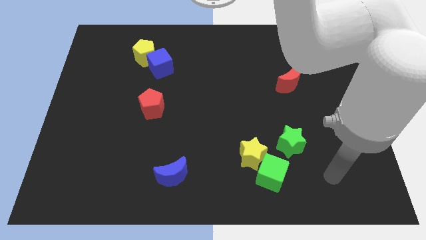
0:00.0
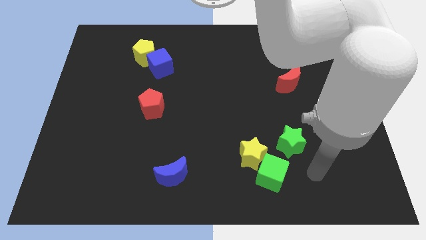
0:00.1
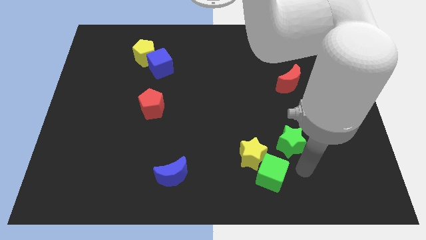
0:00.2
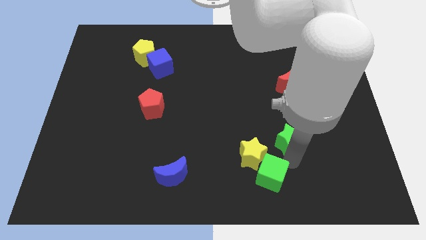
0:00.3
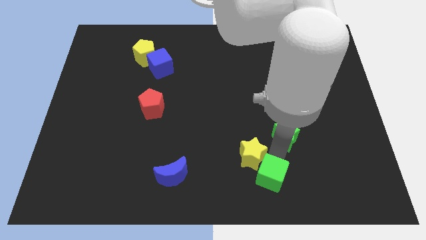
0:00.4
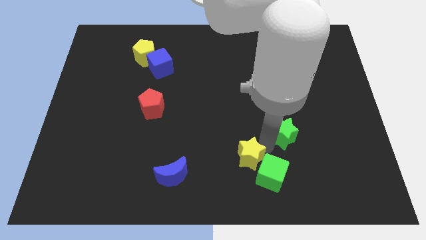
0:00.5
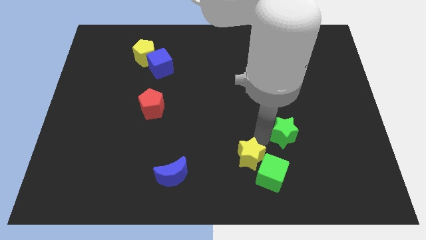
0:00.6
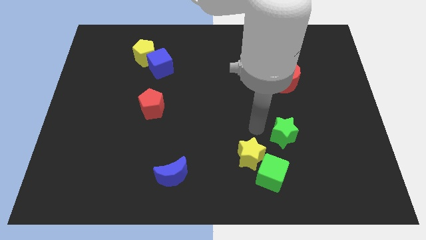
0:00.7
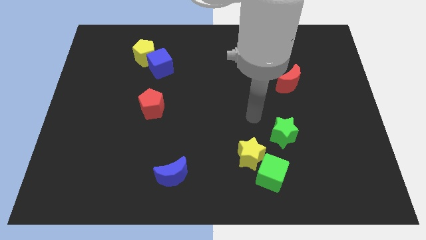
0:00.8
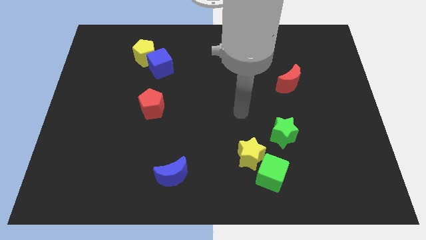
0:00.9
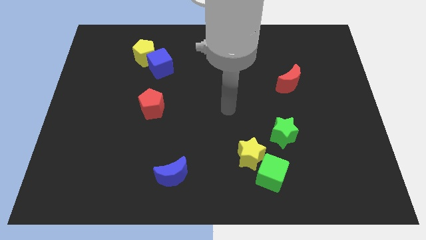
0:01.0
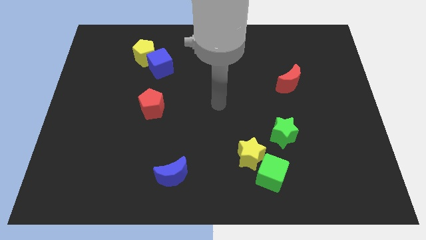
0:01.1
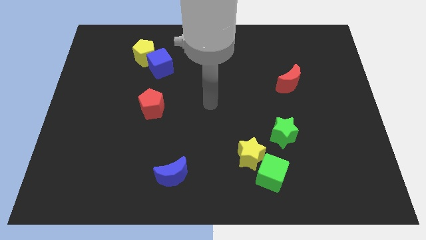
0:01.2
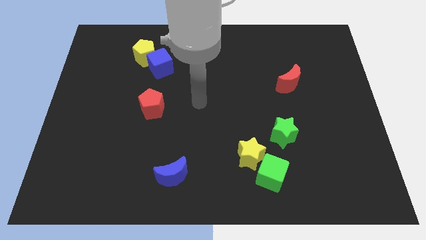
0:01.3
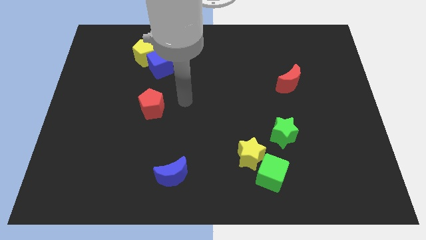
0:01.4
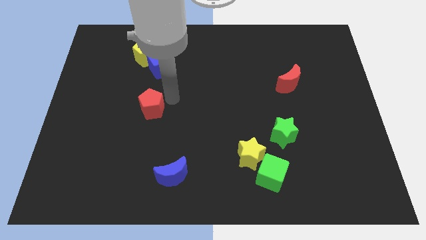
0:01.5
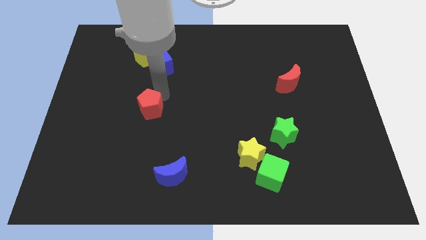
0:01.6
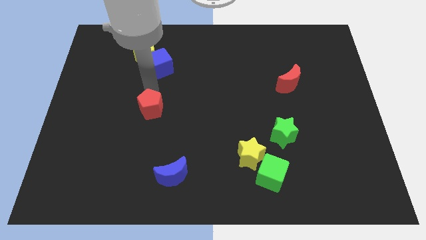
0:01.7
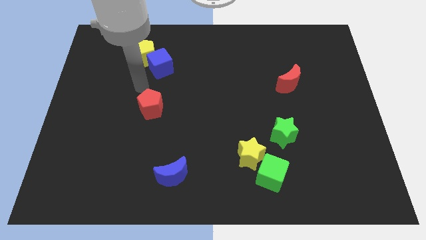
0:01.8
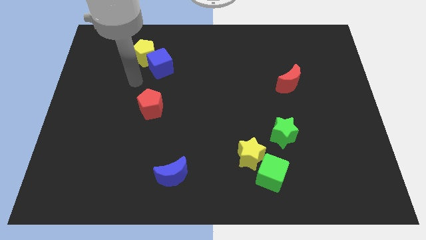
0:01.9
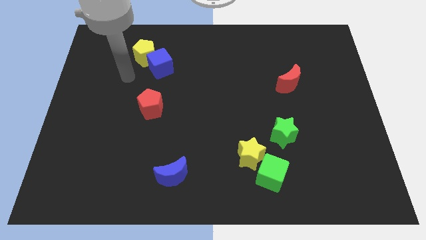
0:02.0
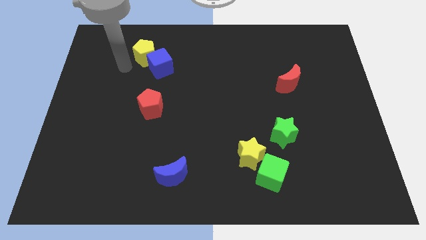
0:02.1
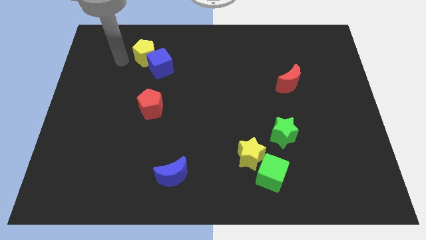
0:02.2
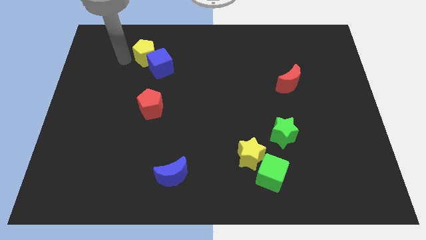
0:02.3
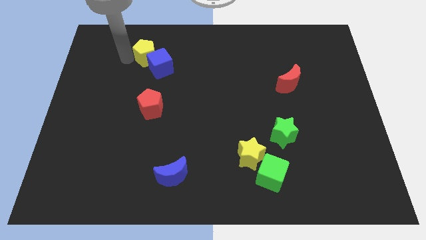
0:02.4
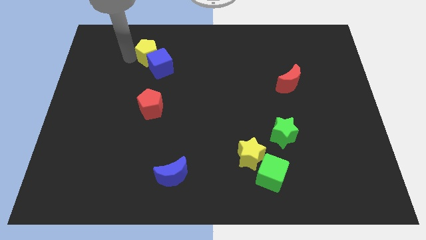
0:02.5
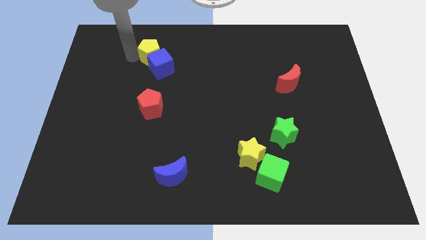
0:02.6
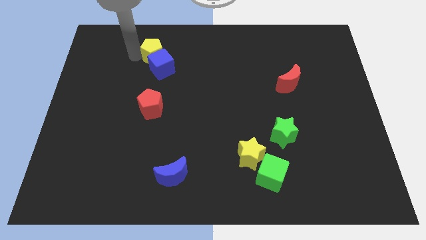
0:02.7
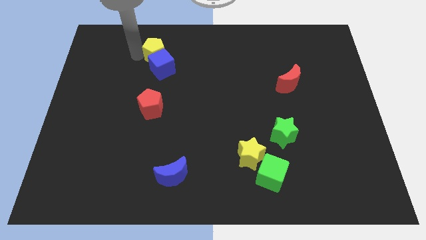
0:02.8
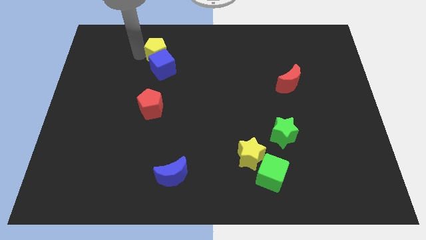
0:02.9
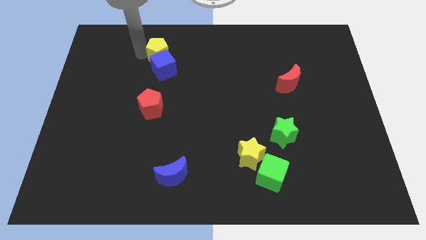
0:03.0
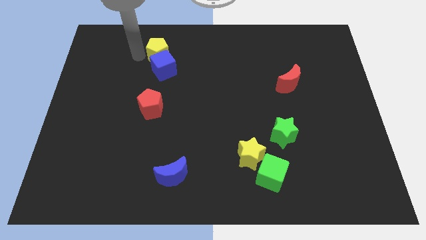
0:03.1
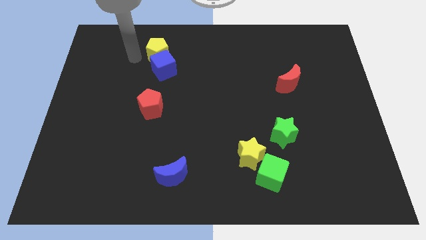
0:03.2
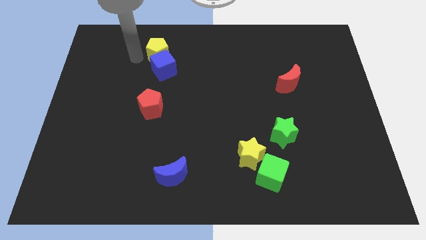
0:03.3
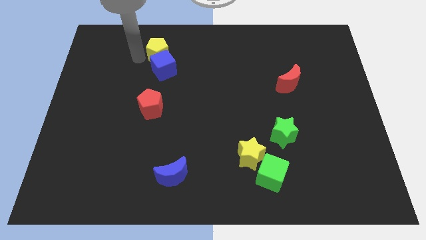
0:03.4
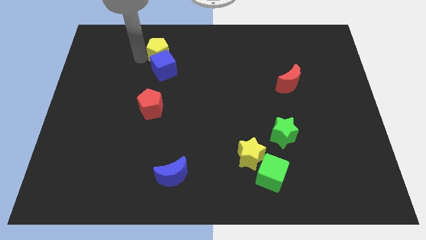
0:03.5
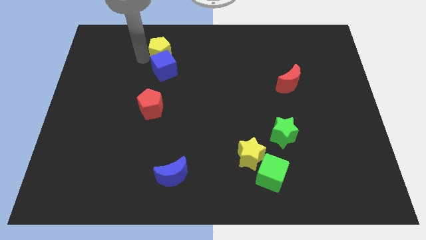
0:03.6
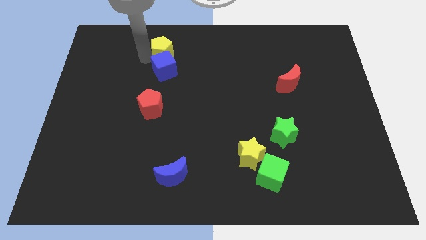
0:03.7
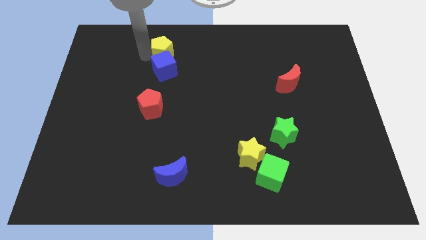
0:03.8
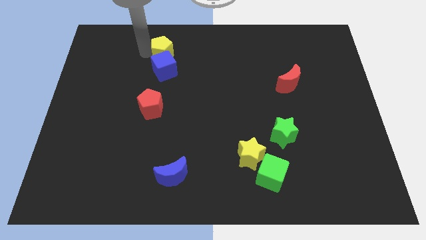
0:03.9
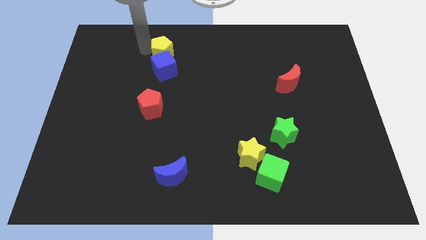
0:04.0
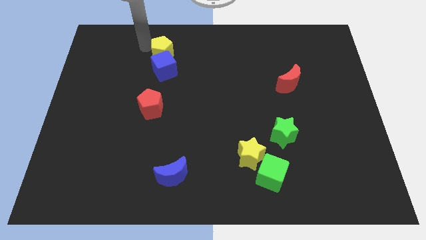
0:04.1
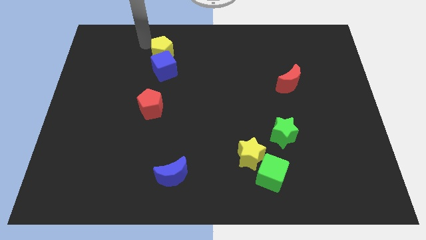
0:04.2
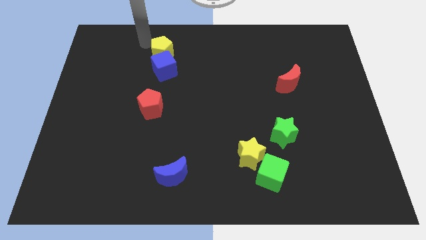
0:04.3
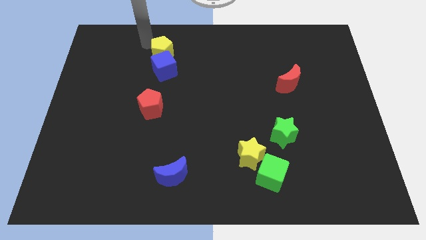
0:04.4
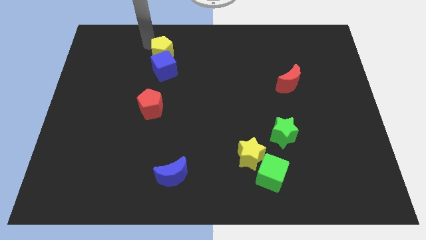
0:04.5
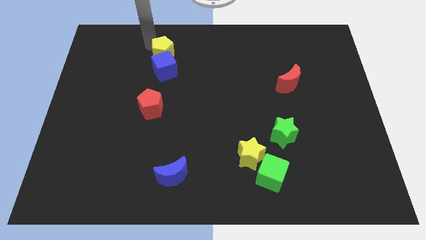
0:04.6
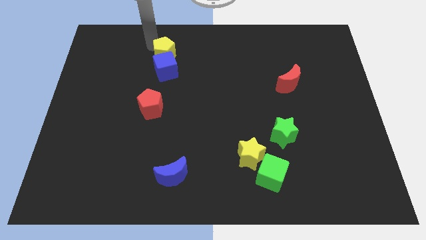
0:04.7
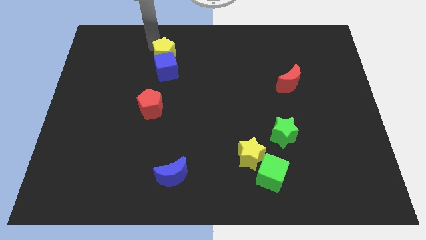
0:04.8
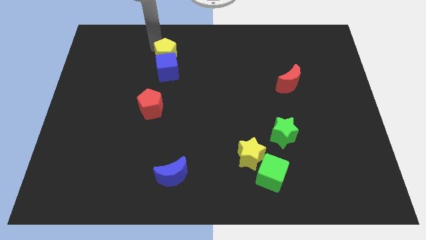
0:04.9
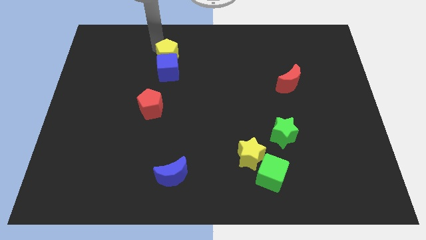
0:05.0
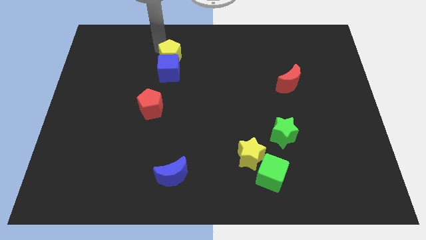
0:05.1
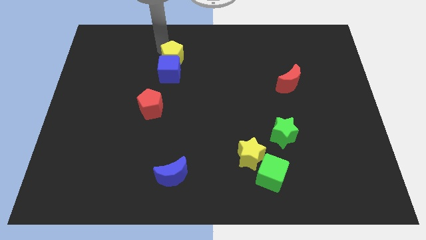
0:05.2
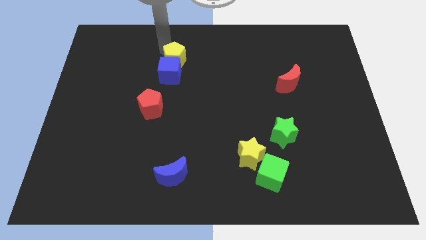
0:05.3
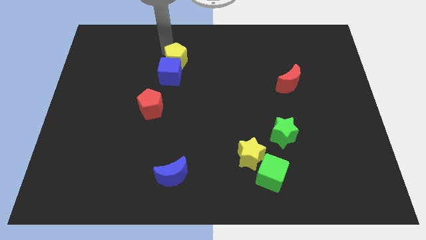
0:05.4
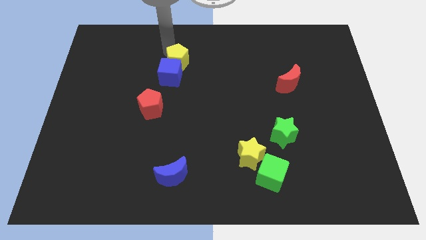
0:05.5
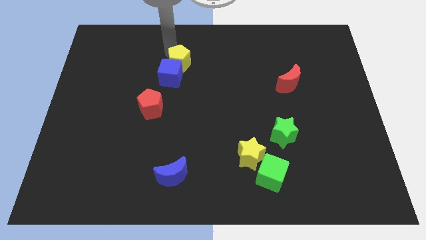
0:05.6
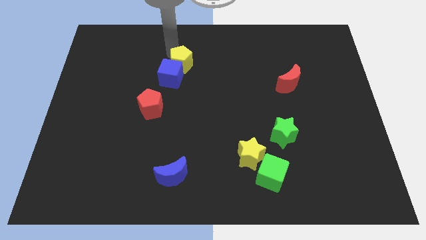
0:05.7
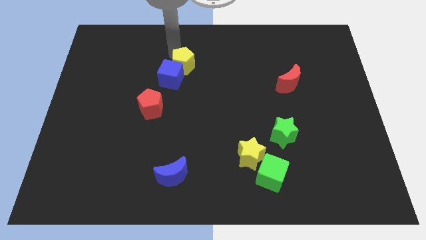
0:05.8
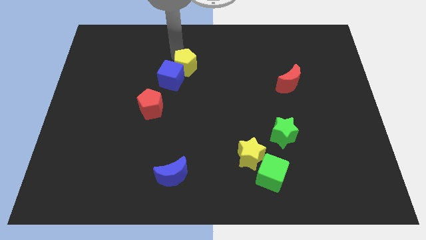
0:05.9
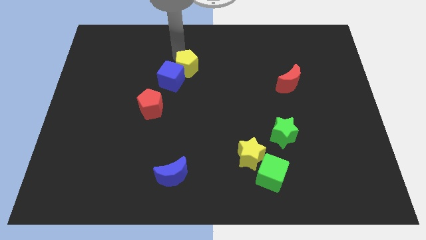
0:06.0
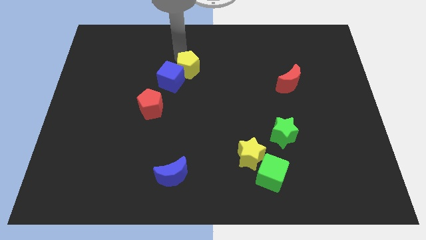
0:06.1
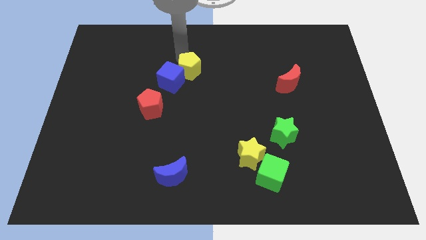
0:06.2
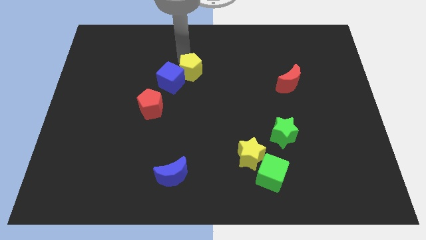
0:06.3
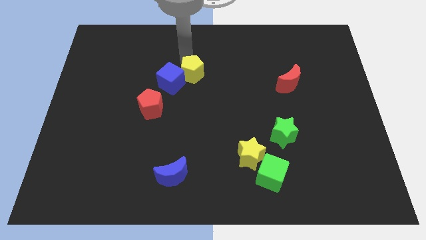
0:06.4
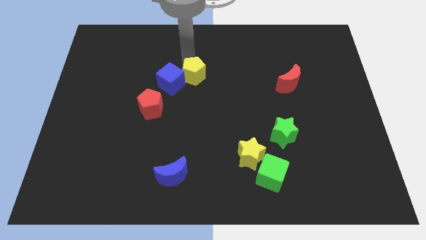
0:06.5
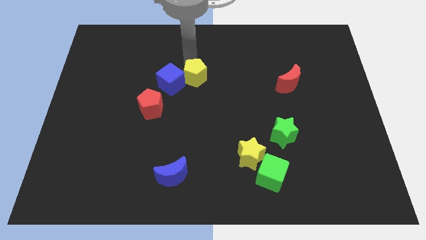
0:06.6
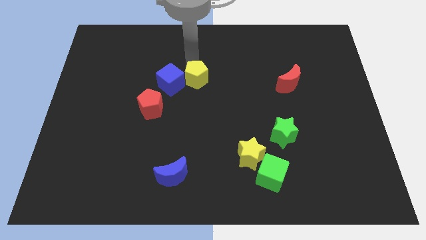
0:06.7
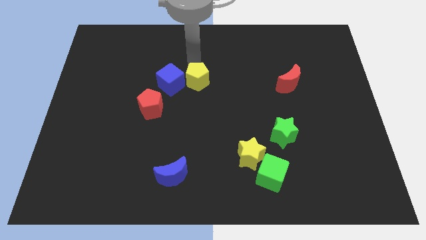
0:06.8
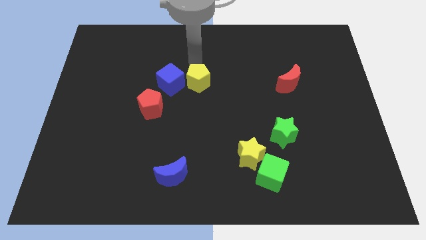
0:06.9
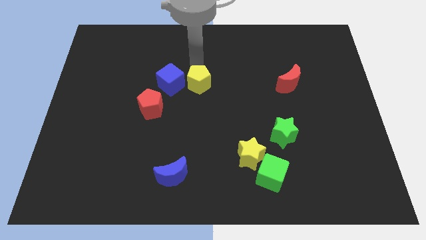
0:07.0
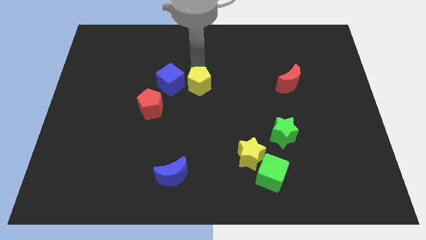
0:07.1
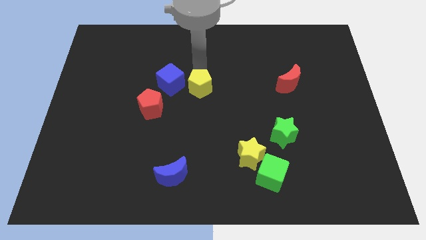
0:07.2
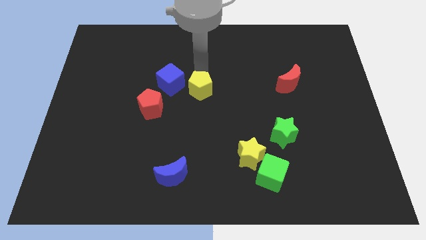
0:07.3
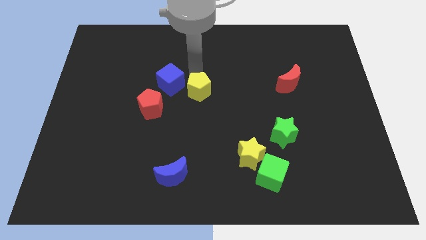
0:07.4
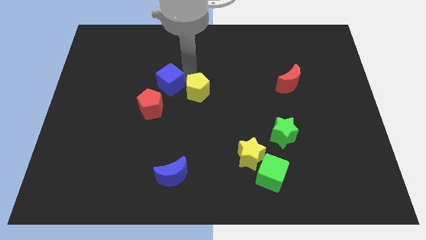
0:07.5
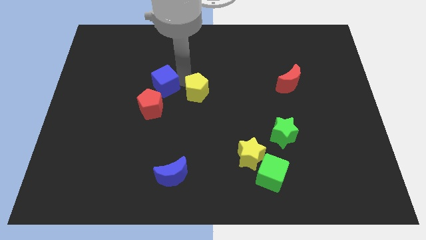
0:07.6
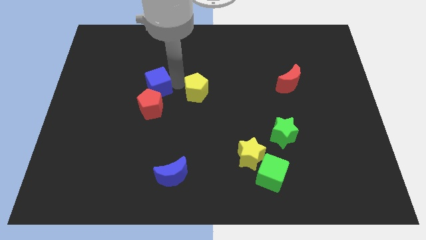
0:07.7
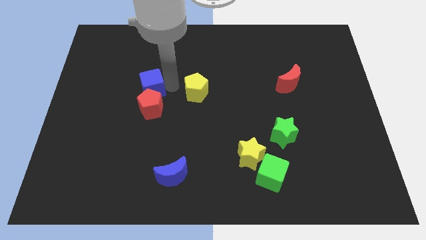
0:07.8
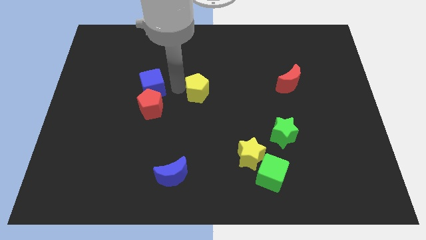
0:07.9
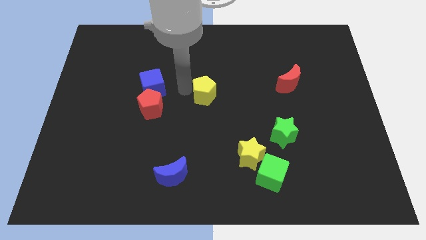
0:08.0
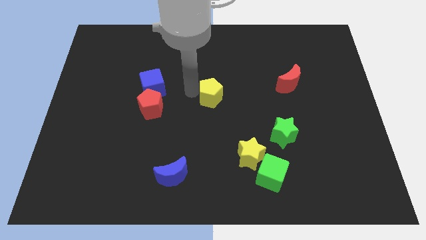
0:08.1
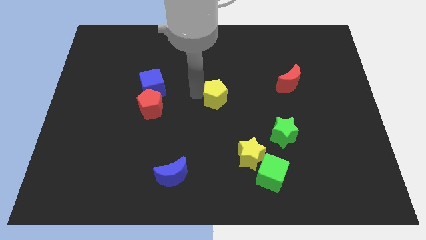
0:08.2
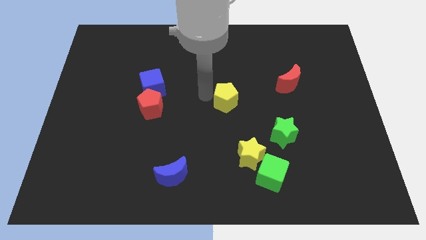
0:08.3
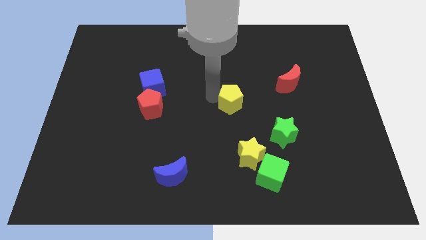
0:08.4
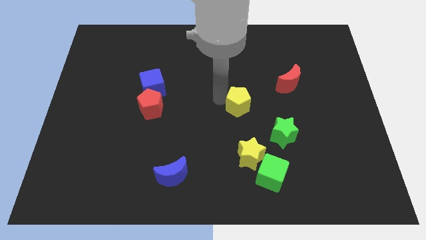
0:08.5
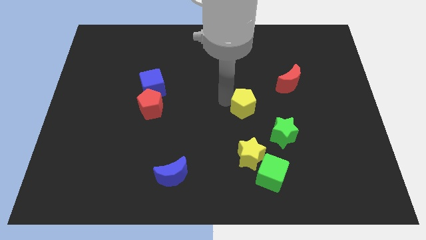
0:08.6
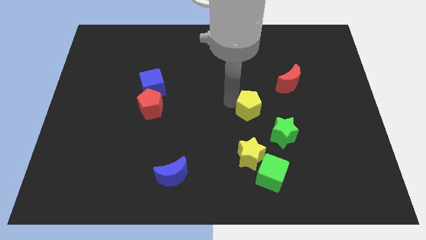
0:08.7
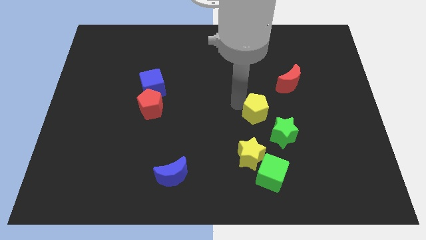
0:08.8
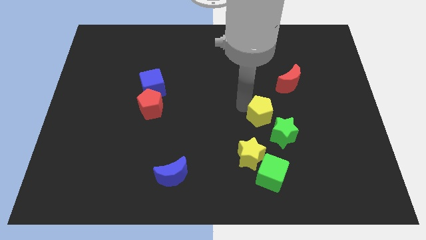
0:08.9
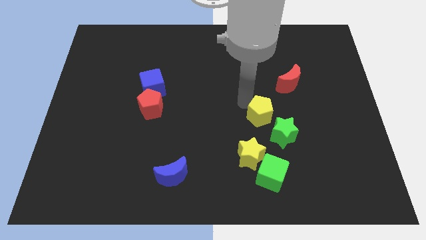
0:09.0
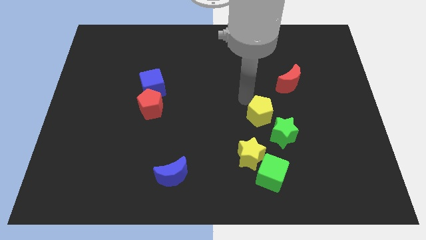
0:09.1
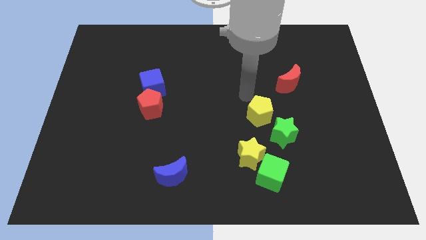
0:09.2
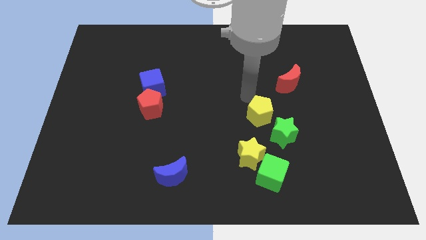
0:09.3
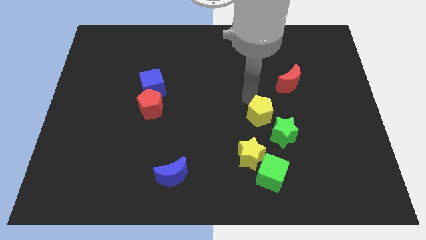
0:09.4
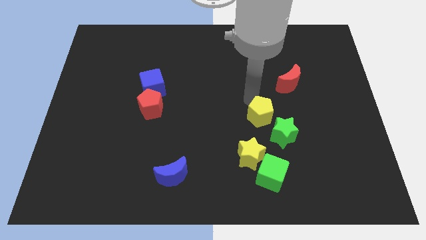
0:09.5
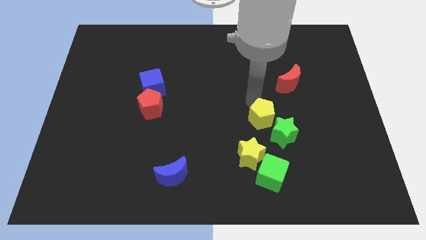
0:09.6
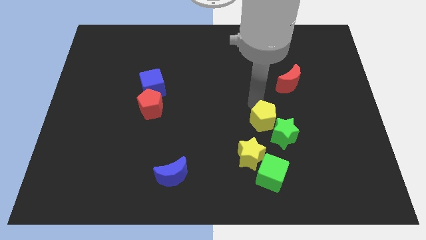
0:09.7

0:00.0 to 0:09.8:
put the yellow pentagon close to the green star
